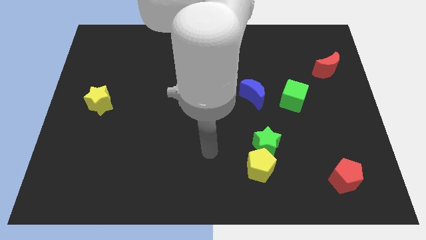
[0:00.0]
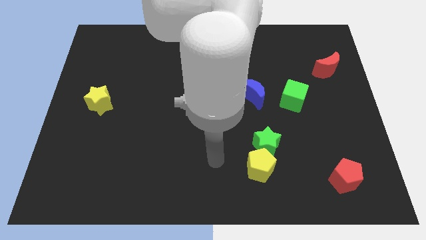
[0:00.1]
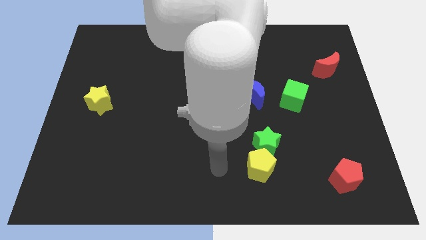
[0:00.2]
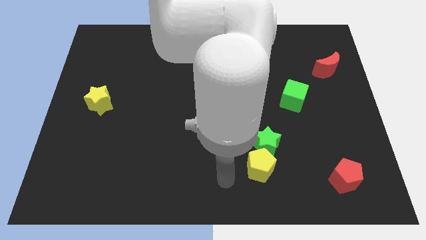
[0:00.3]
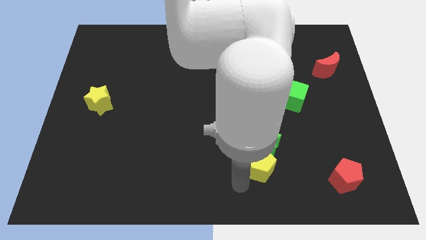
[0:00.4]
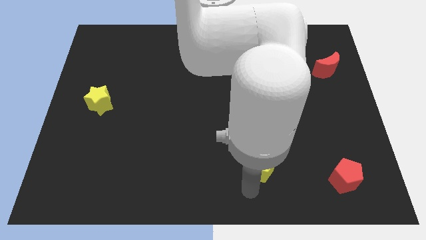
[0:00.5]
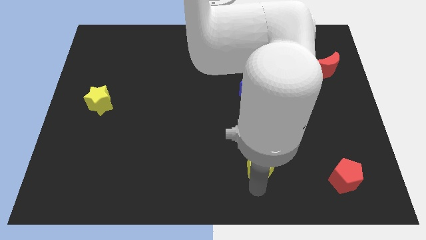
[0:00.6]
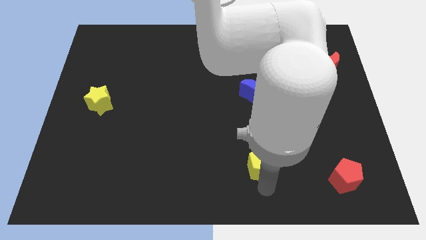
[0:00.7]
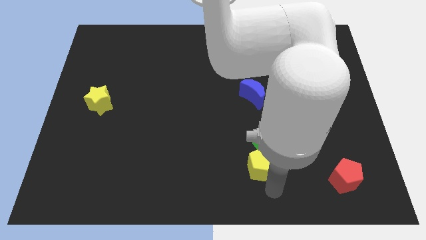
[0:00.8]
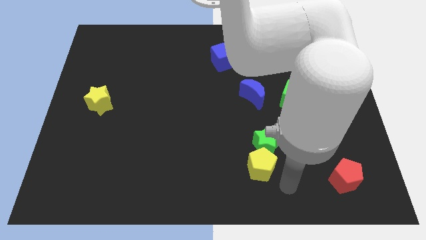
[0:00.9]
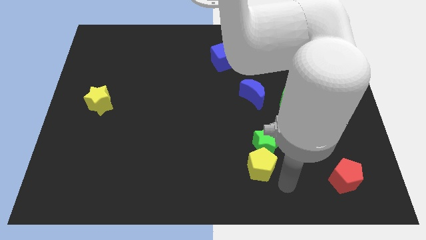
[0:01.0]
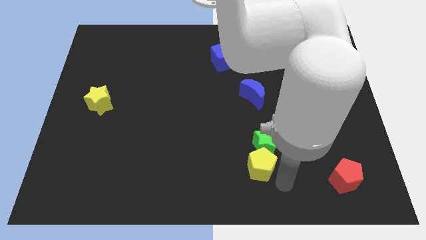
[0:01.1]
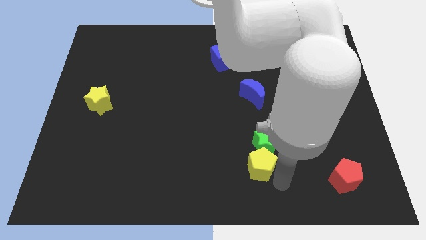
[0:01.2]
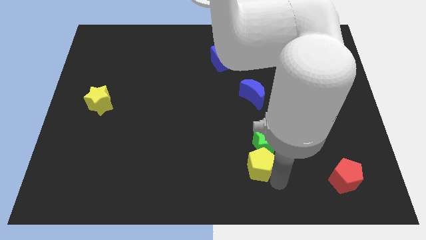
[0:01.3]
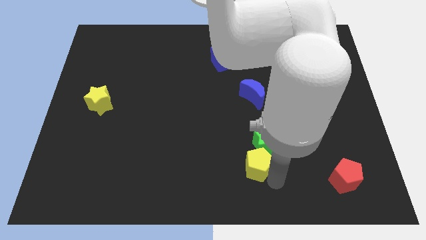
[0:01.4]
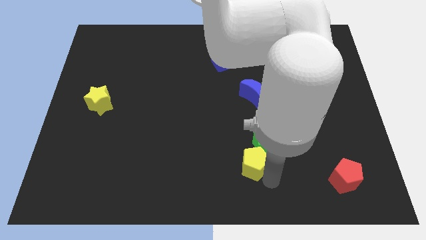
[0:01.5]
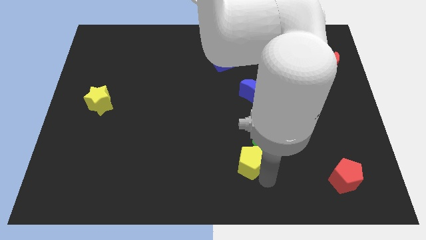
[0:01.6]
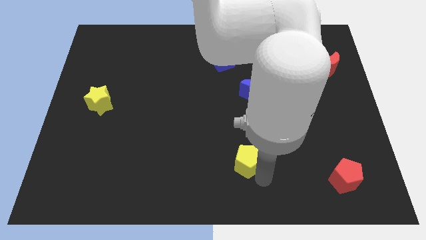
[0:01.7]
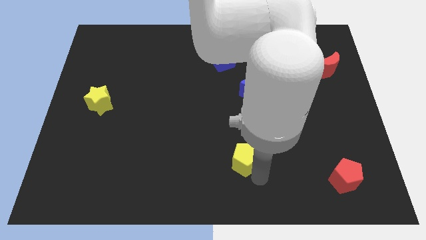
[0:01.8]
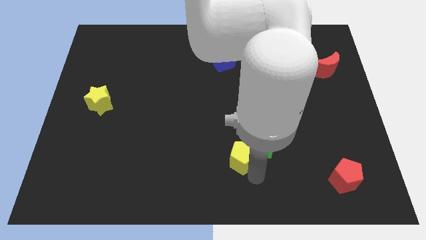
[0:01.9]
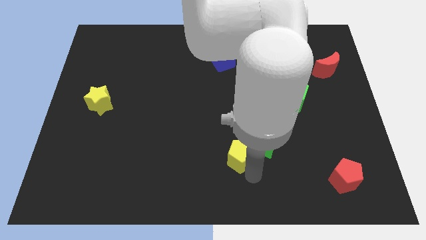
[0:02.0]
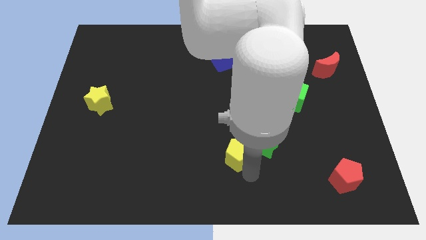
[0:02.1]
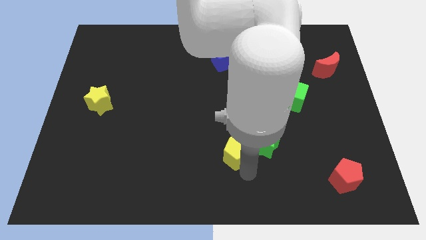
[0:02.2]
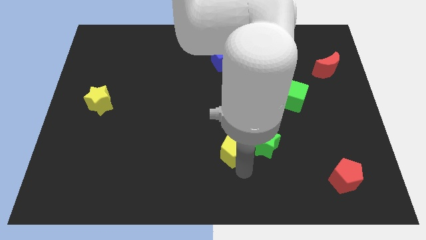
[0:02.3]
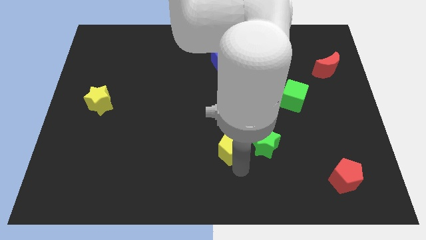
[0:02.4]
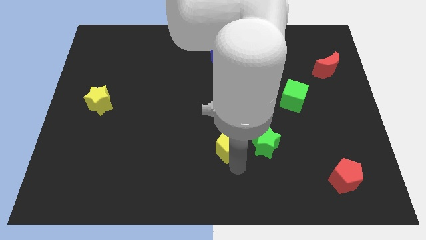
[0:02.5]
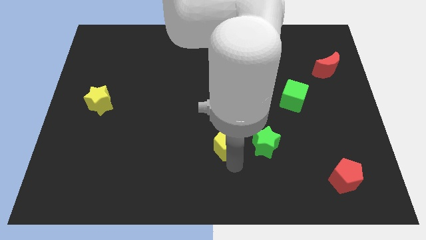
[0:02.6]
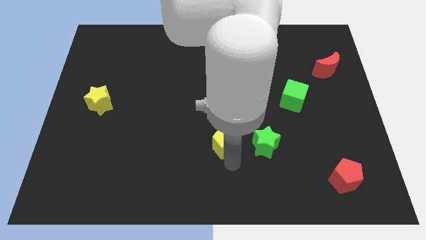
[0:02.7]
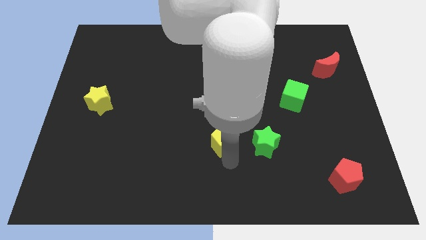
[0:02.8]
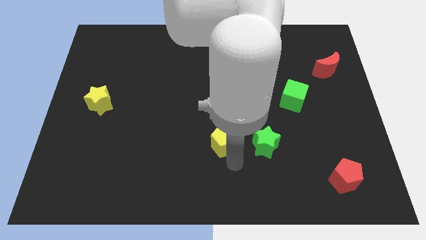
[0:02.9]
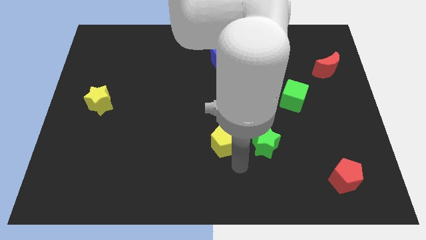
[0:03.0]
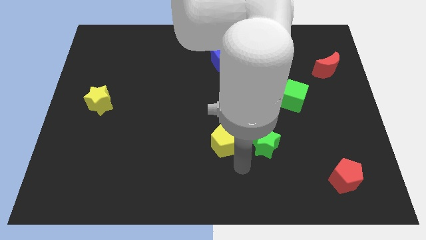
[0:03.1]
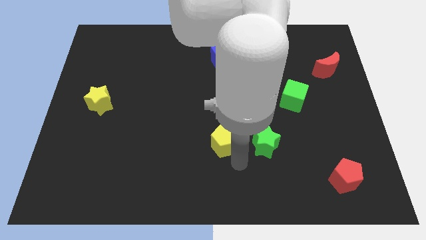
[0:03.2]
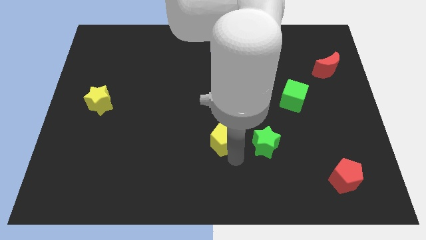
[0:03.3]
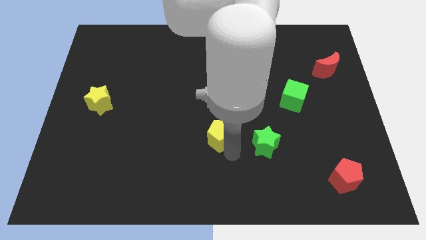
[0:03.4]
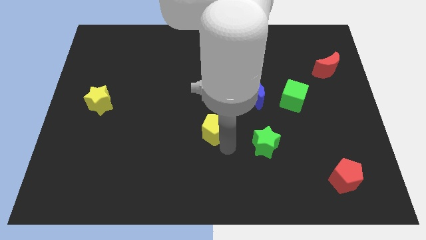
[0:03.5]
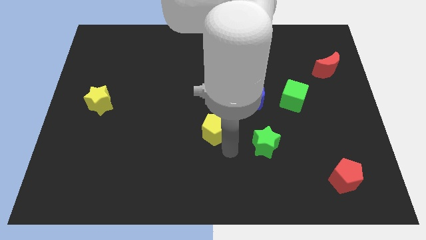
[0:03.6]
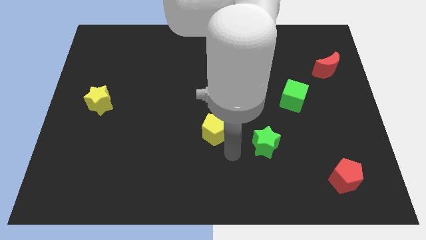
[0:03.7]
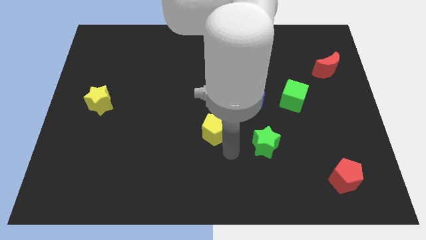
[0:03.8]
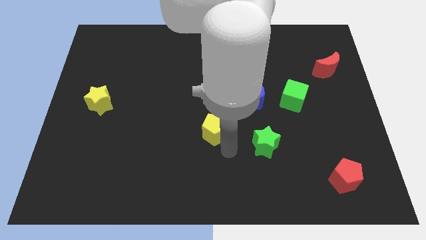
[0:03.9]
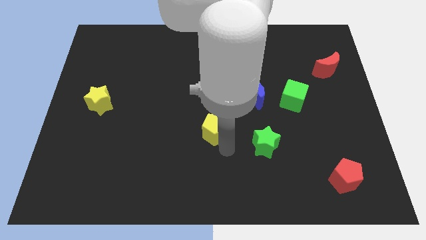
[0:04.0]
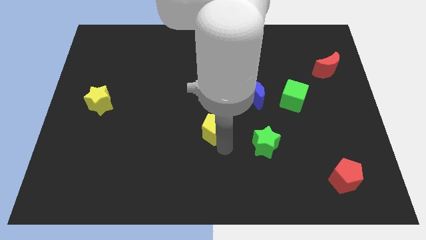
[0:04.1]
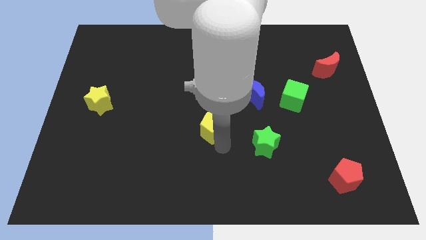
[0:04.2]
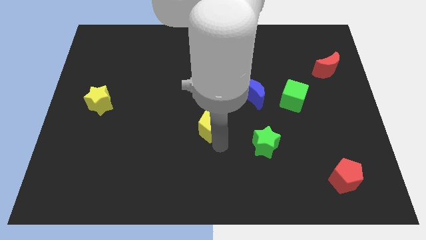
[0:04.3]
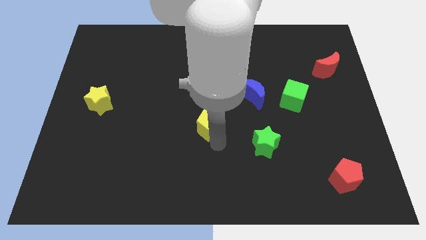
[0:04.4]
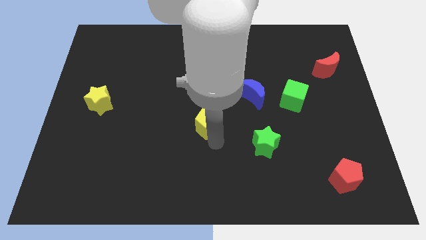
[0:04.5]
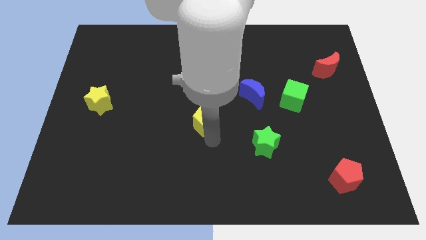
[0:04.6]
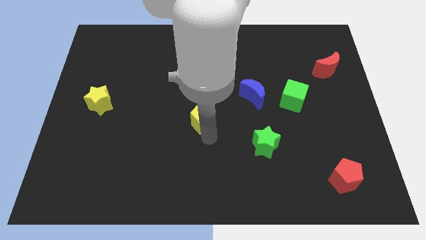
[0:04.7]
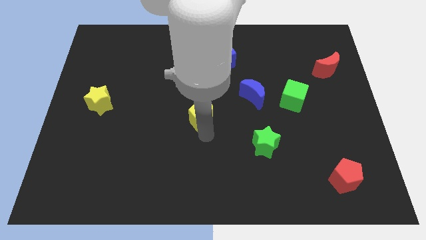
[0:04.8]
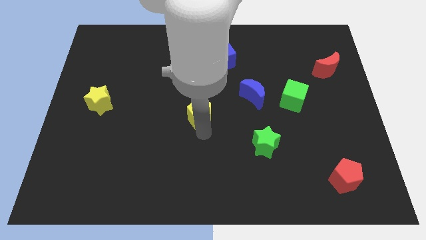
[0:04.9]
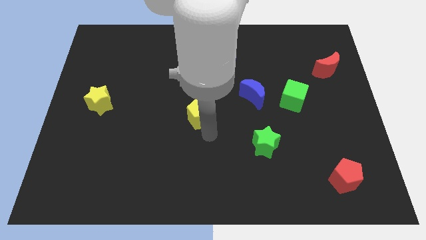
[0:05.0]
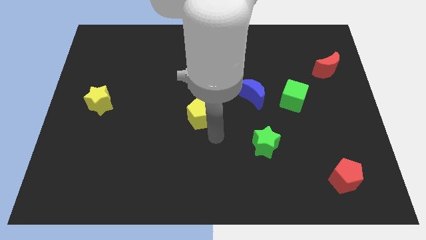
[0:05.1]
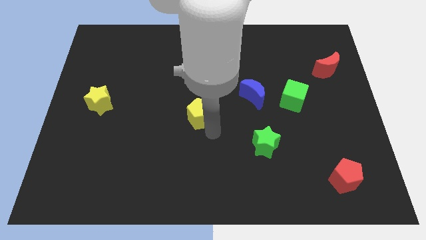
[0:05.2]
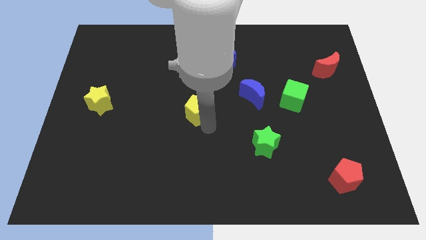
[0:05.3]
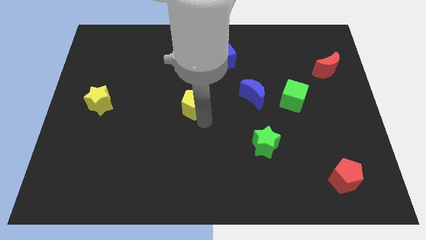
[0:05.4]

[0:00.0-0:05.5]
push the yellow pentagon upwards and left

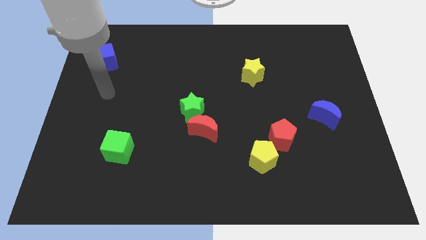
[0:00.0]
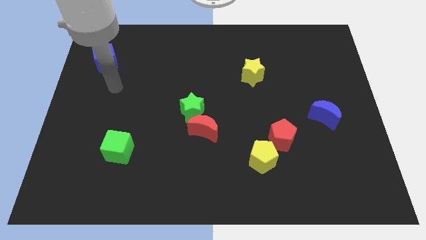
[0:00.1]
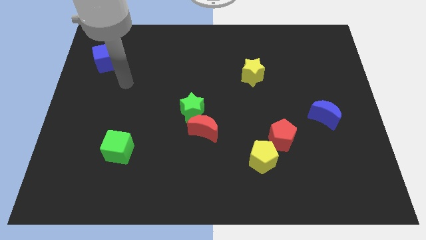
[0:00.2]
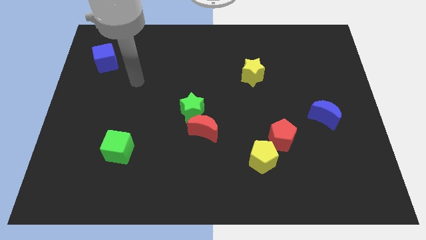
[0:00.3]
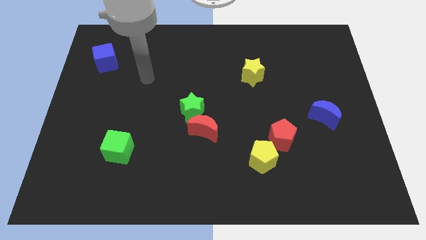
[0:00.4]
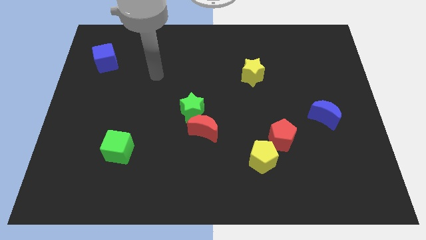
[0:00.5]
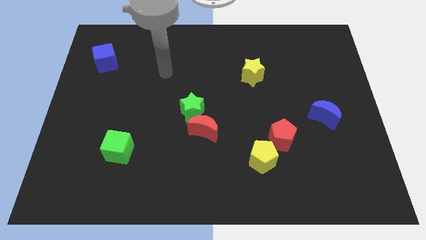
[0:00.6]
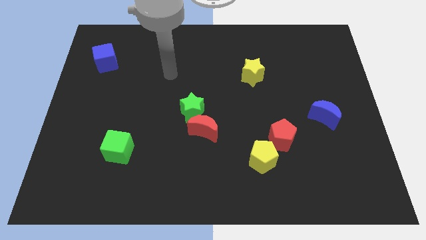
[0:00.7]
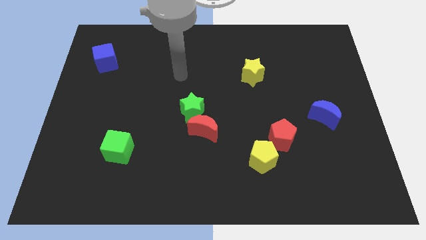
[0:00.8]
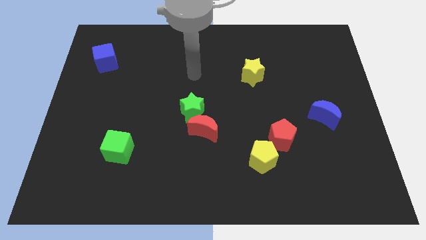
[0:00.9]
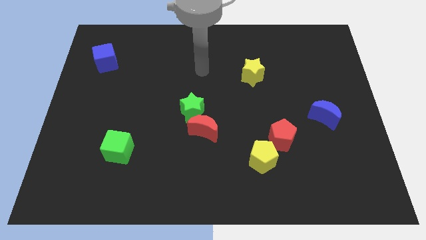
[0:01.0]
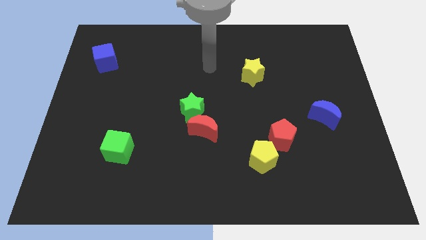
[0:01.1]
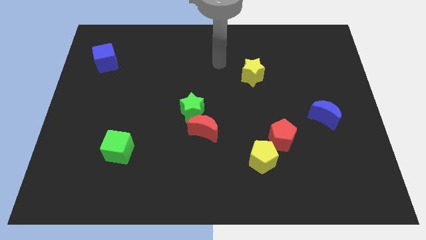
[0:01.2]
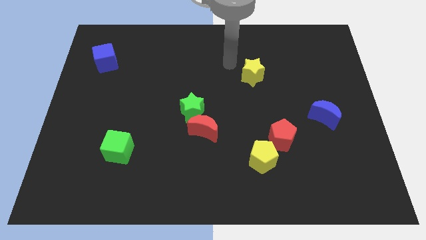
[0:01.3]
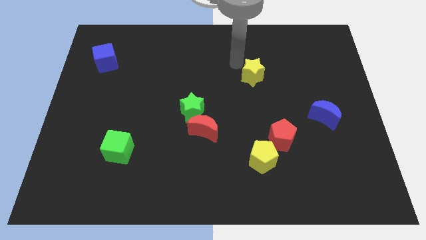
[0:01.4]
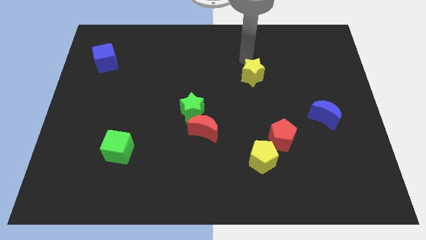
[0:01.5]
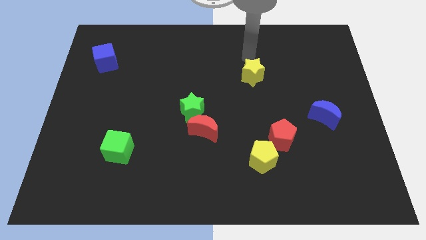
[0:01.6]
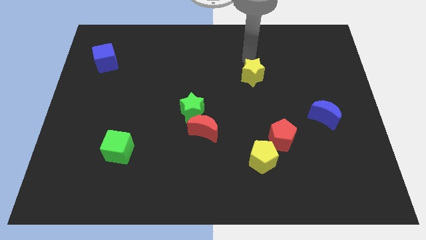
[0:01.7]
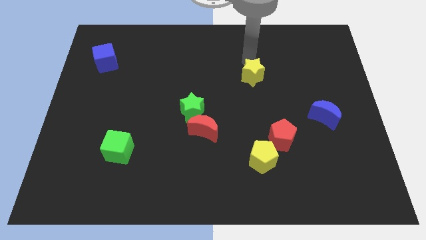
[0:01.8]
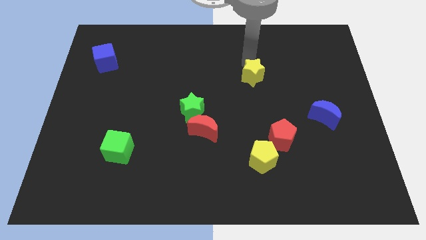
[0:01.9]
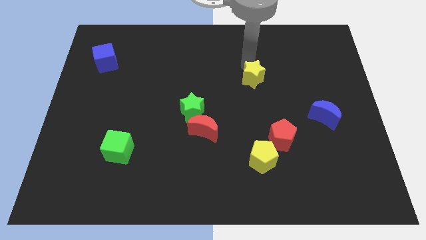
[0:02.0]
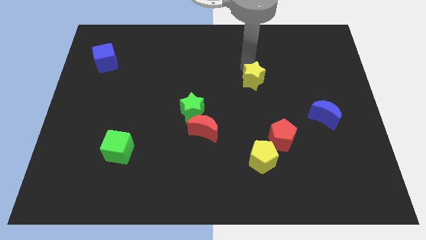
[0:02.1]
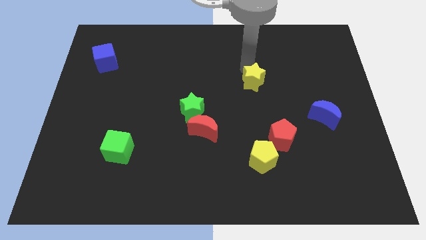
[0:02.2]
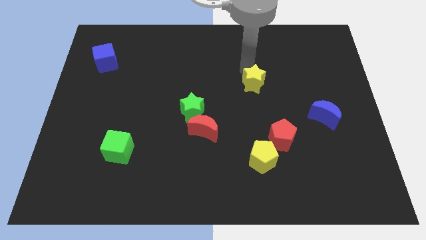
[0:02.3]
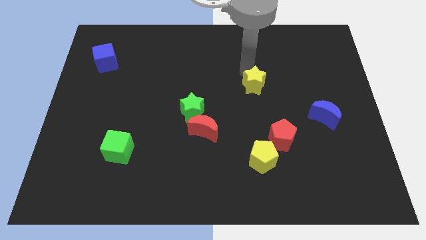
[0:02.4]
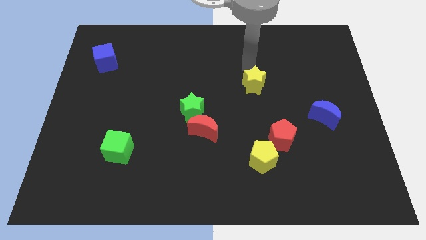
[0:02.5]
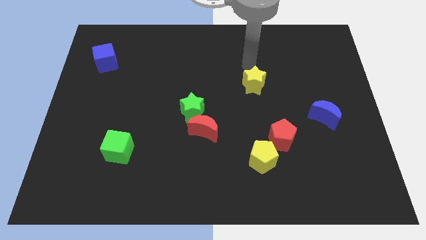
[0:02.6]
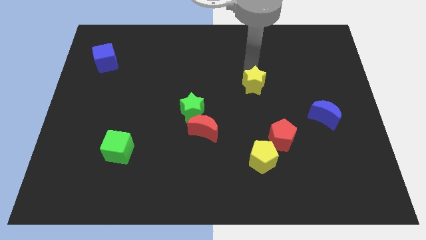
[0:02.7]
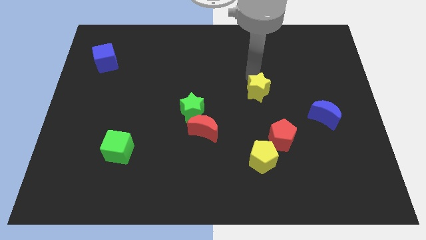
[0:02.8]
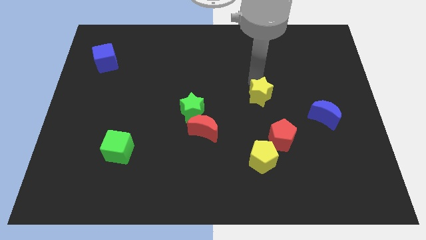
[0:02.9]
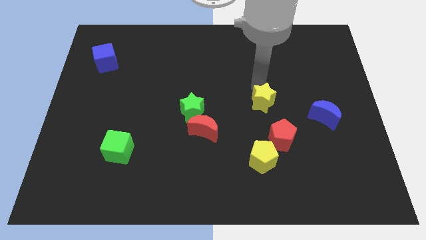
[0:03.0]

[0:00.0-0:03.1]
slightly slide the yellow star down
